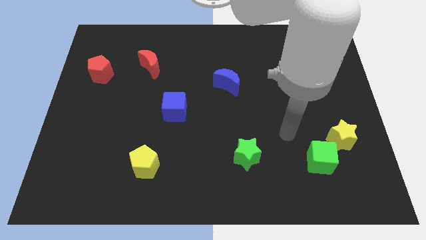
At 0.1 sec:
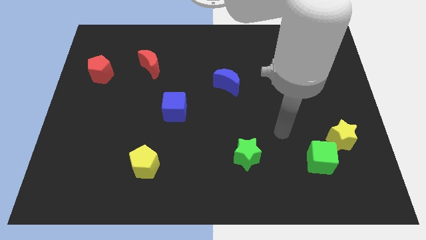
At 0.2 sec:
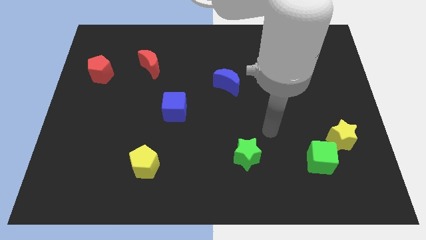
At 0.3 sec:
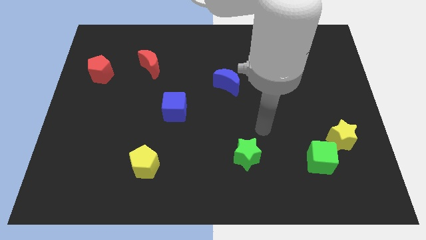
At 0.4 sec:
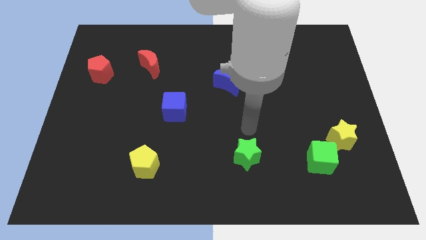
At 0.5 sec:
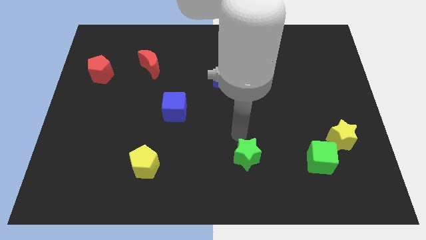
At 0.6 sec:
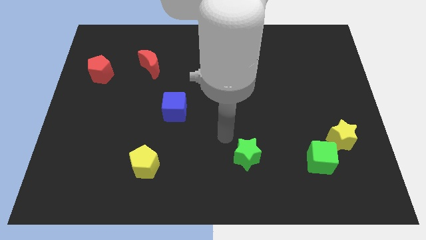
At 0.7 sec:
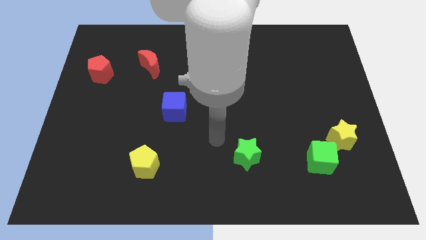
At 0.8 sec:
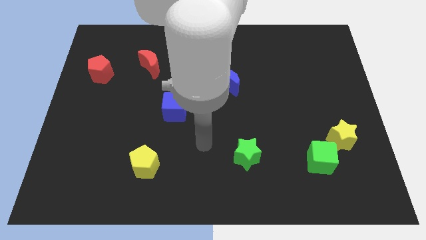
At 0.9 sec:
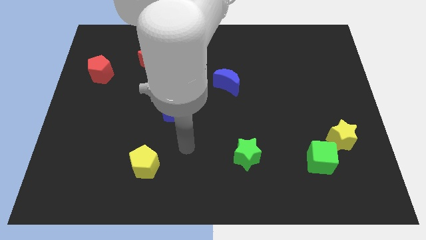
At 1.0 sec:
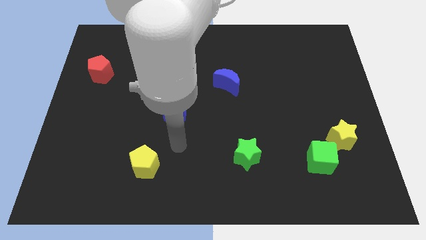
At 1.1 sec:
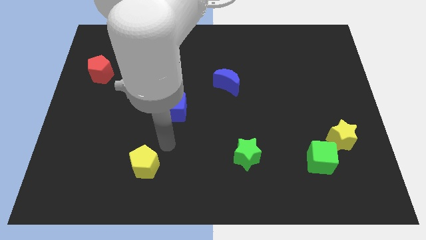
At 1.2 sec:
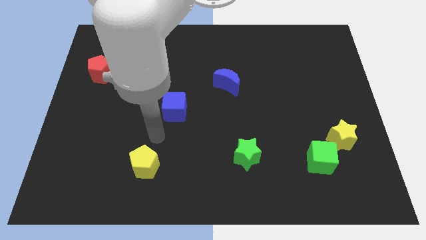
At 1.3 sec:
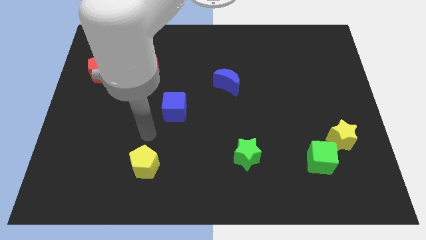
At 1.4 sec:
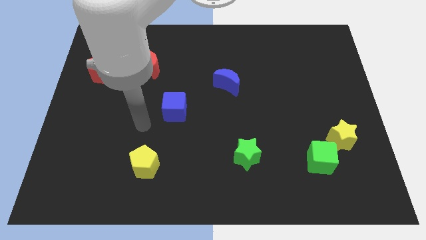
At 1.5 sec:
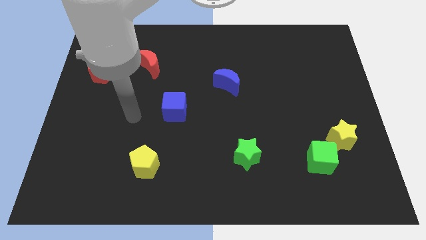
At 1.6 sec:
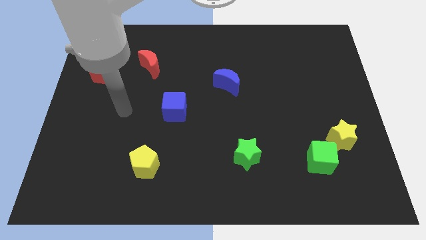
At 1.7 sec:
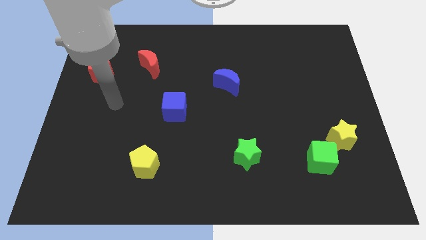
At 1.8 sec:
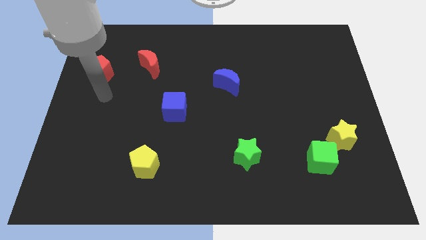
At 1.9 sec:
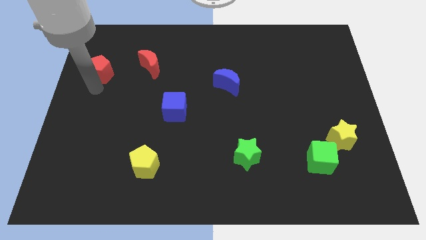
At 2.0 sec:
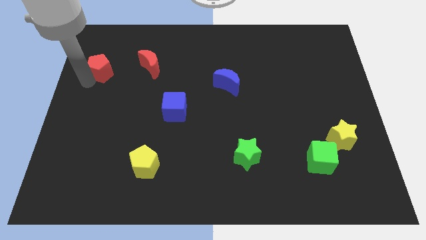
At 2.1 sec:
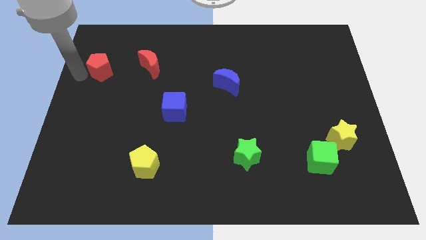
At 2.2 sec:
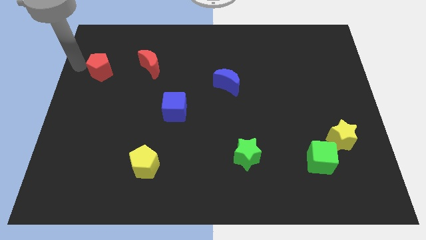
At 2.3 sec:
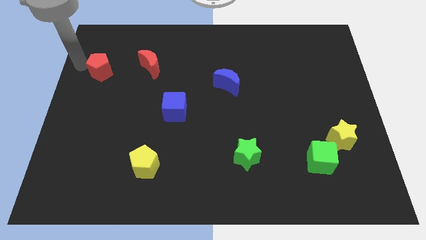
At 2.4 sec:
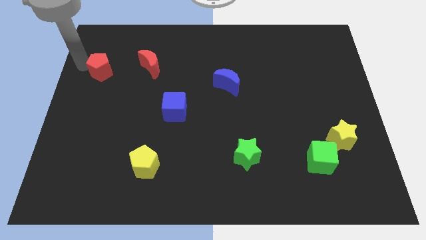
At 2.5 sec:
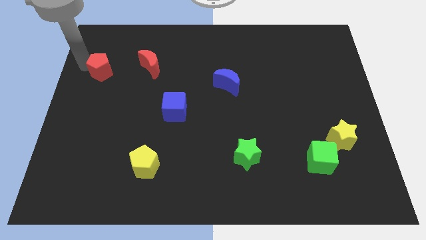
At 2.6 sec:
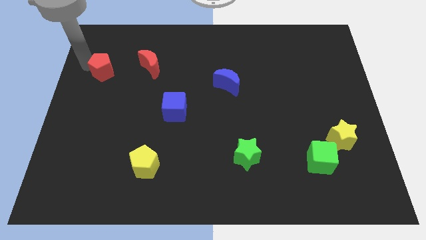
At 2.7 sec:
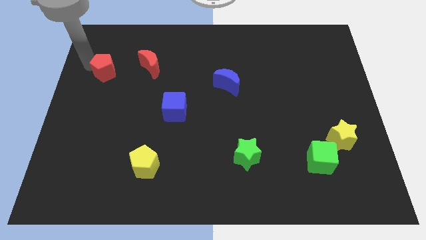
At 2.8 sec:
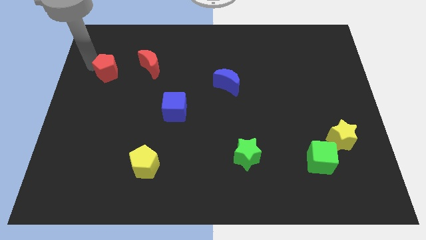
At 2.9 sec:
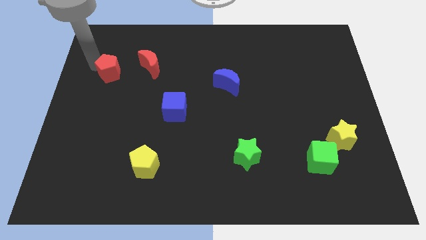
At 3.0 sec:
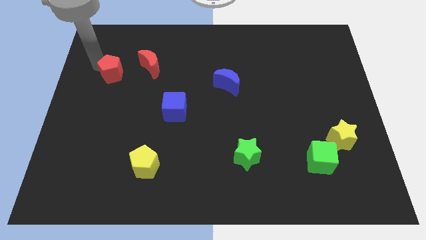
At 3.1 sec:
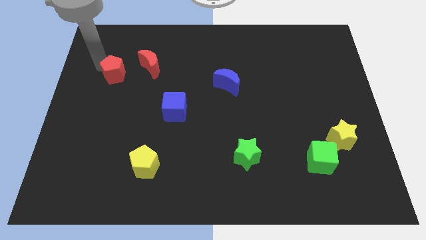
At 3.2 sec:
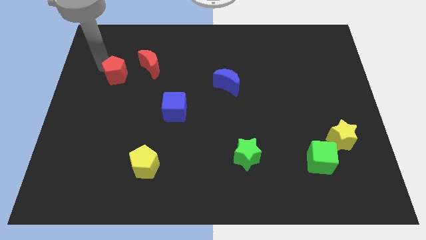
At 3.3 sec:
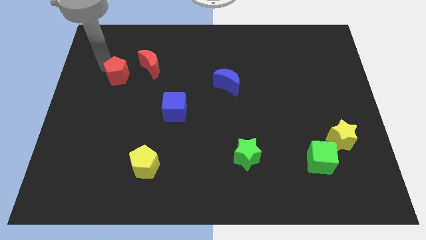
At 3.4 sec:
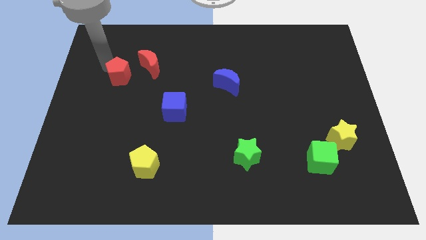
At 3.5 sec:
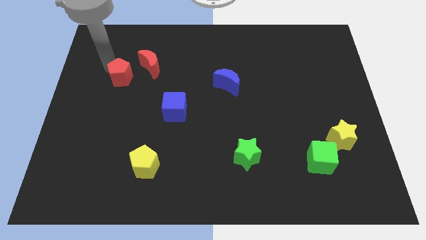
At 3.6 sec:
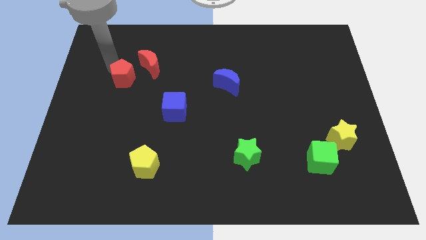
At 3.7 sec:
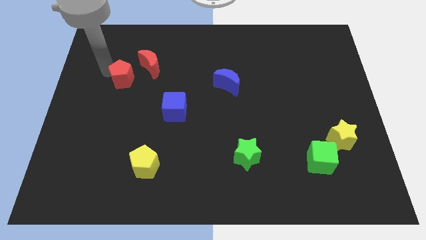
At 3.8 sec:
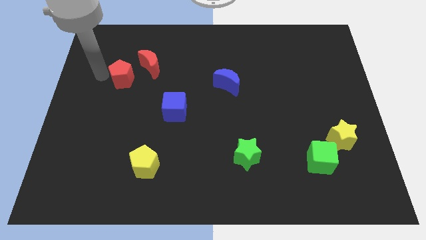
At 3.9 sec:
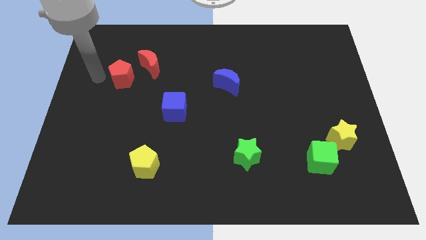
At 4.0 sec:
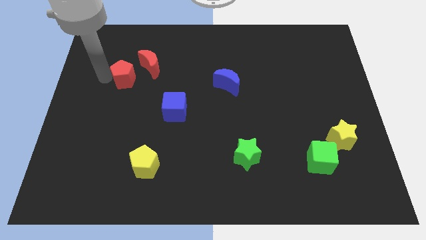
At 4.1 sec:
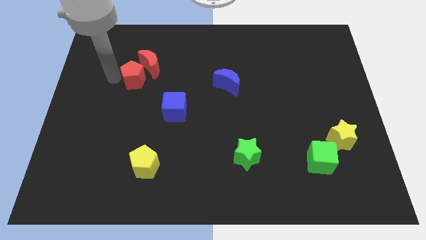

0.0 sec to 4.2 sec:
move the red pentagon a bit to the right

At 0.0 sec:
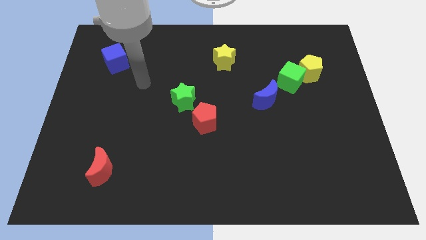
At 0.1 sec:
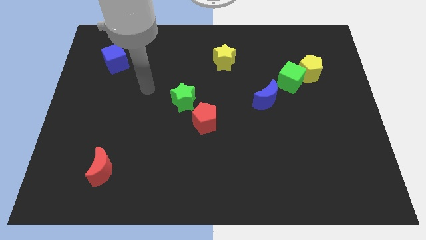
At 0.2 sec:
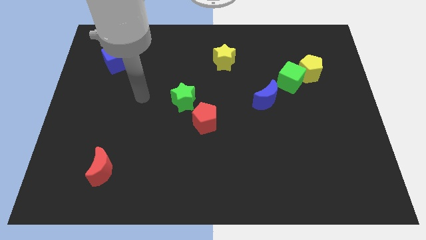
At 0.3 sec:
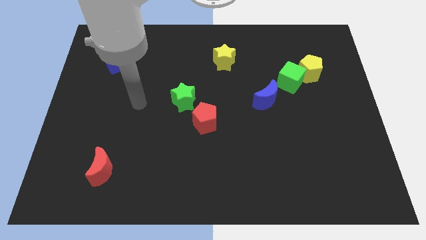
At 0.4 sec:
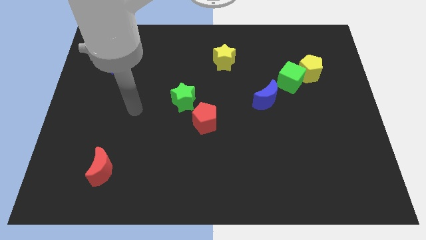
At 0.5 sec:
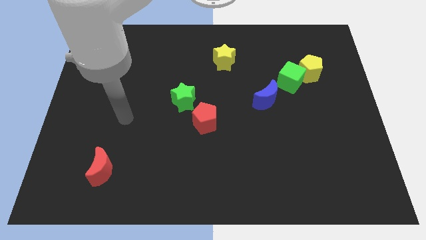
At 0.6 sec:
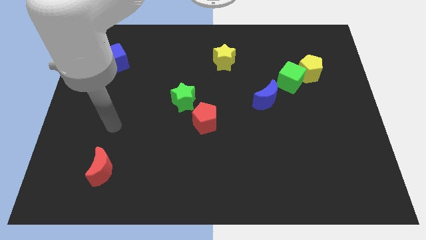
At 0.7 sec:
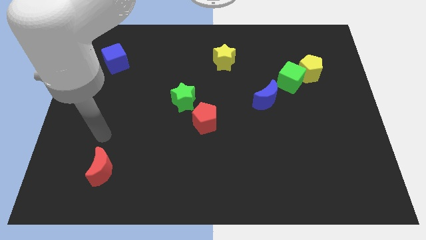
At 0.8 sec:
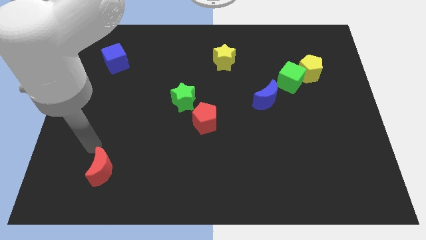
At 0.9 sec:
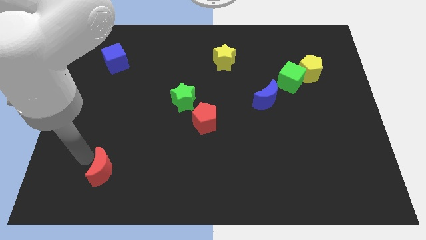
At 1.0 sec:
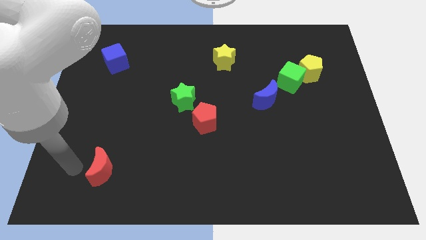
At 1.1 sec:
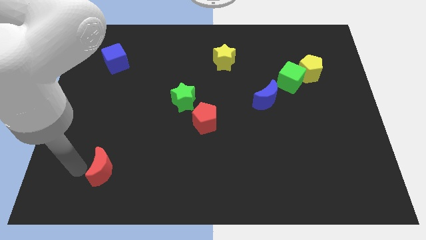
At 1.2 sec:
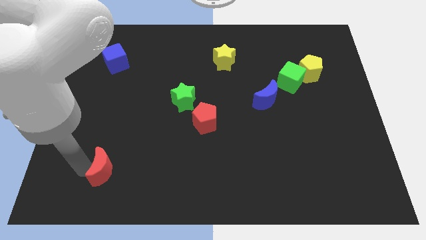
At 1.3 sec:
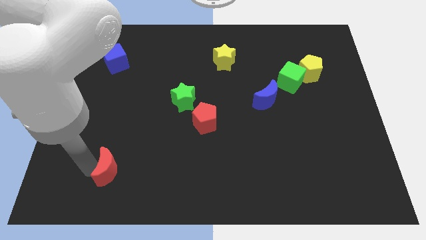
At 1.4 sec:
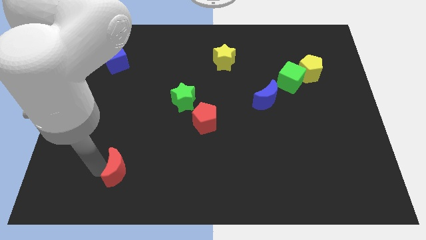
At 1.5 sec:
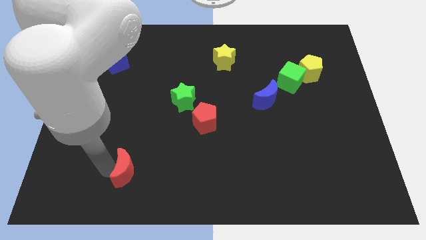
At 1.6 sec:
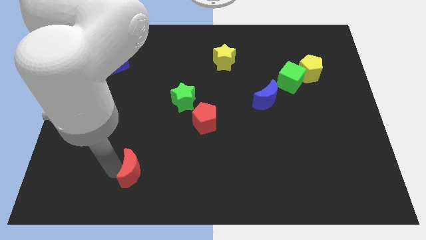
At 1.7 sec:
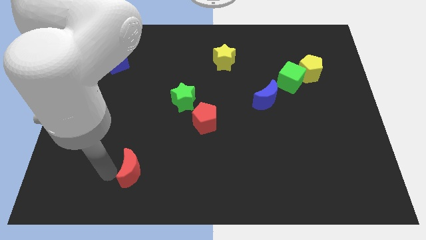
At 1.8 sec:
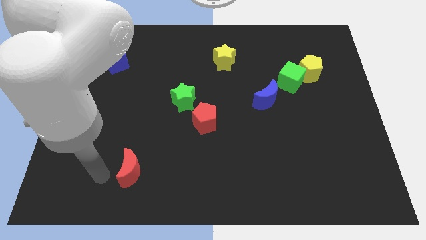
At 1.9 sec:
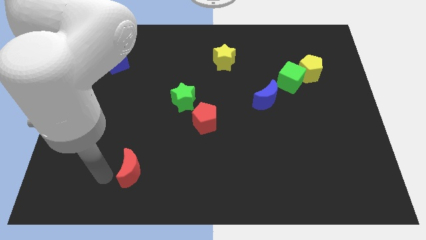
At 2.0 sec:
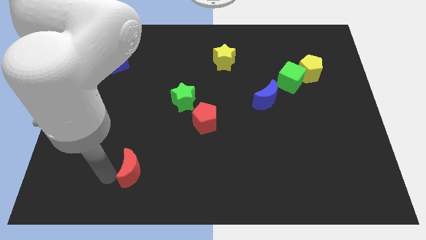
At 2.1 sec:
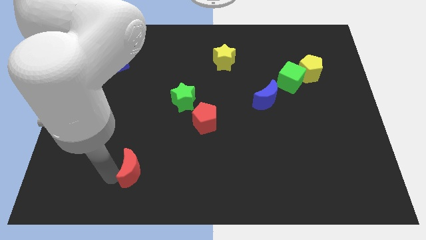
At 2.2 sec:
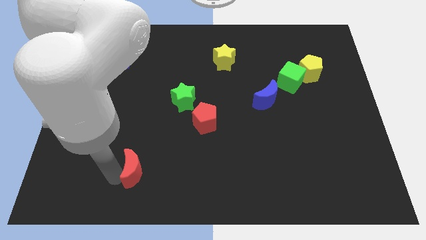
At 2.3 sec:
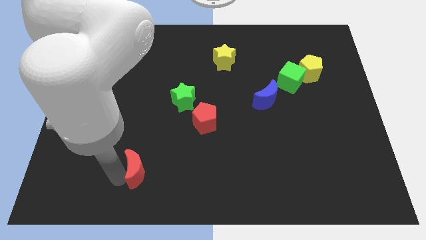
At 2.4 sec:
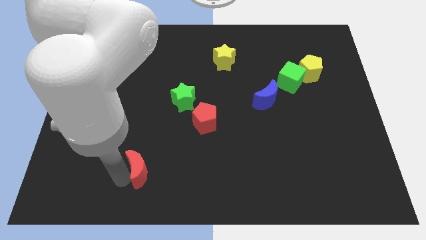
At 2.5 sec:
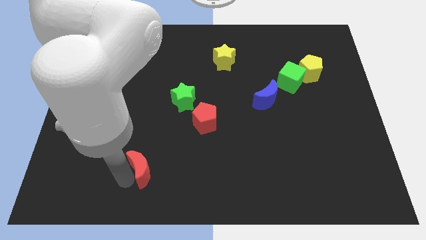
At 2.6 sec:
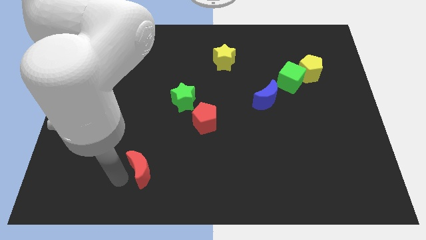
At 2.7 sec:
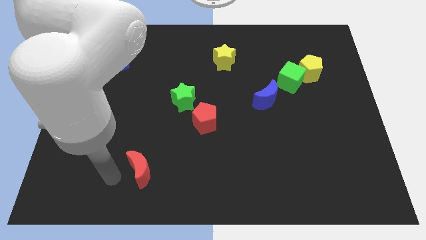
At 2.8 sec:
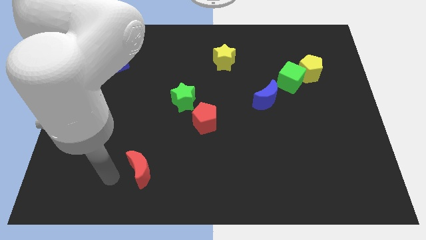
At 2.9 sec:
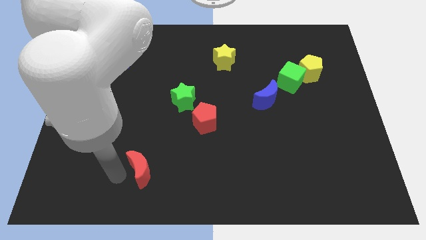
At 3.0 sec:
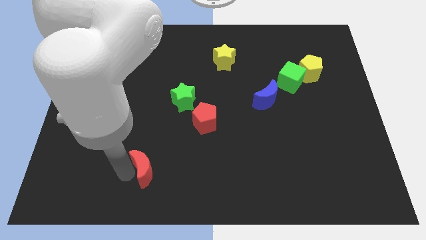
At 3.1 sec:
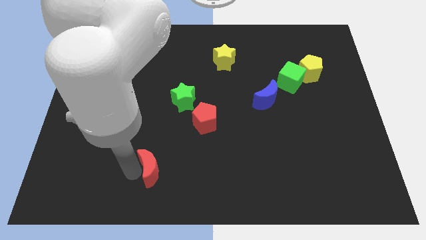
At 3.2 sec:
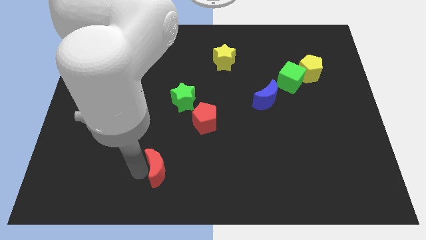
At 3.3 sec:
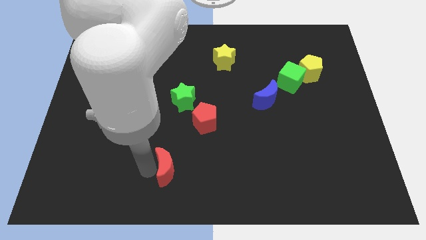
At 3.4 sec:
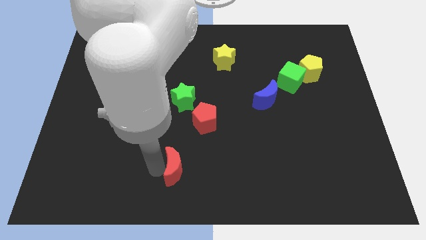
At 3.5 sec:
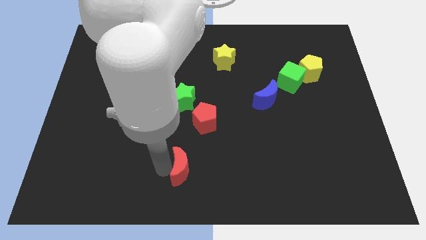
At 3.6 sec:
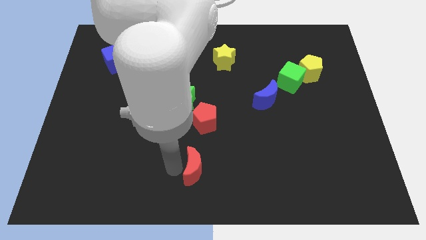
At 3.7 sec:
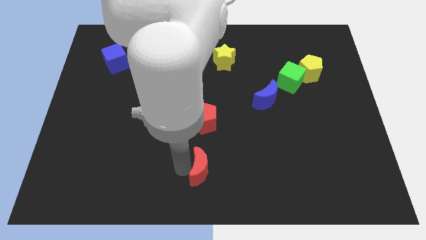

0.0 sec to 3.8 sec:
slide the red moon to the right
